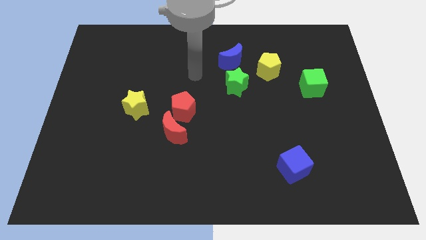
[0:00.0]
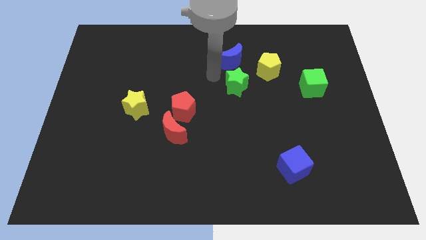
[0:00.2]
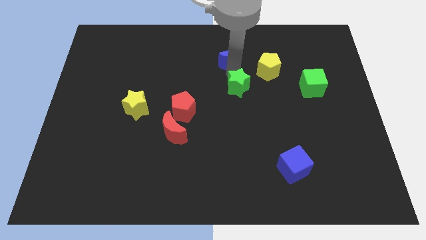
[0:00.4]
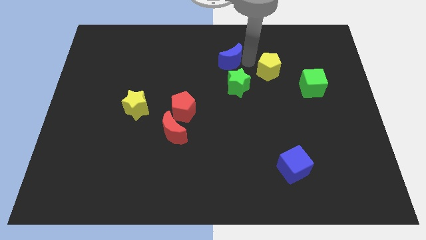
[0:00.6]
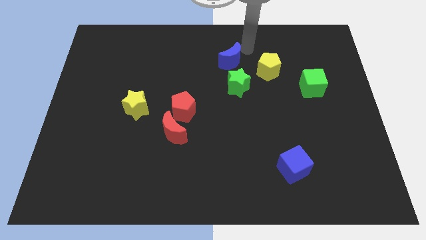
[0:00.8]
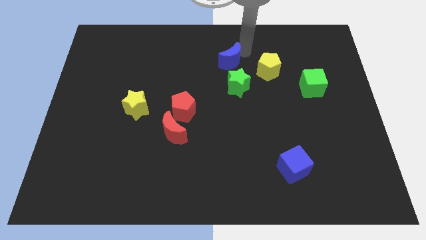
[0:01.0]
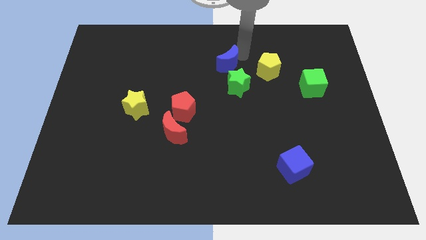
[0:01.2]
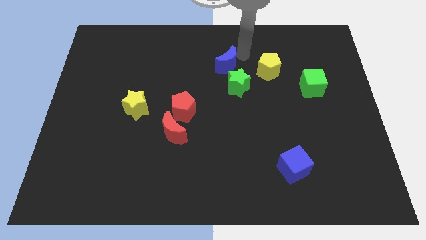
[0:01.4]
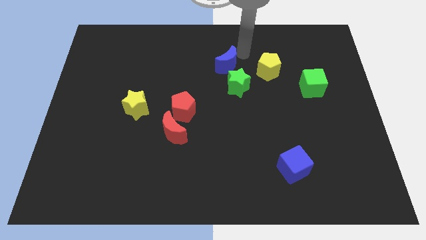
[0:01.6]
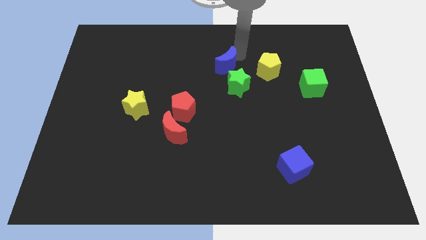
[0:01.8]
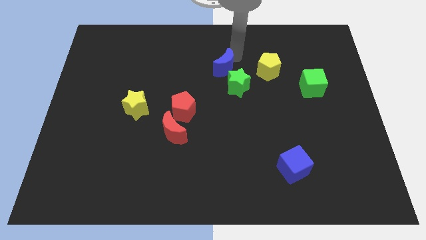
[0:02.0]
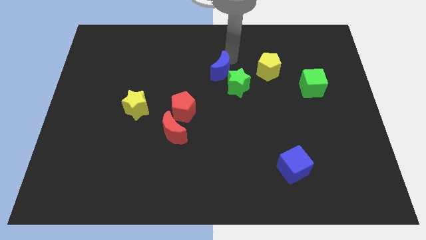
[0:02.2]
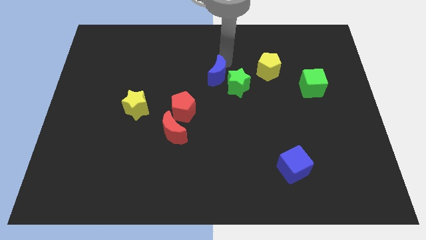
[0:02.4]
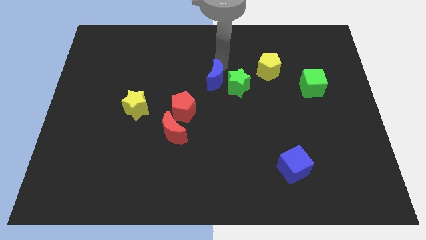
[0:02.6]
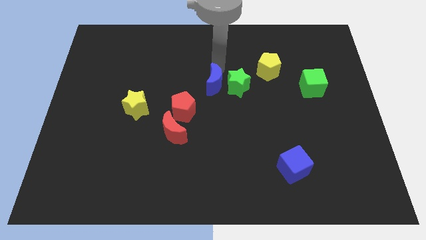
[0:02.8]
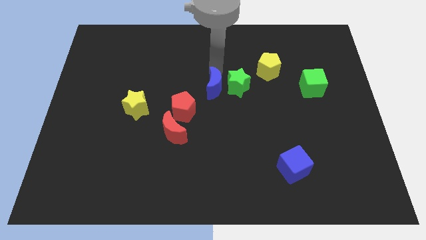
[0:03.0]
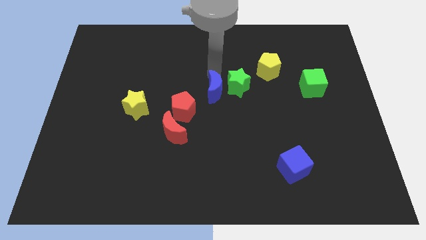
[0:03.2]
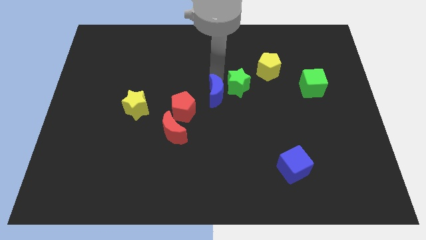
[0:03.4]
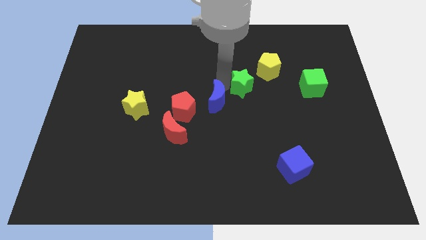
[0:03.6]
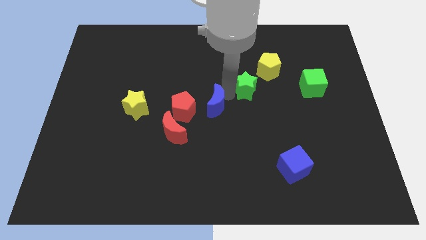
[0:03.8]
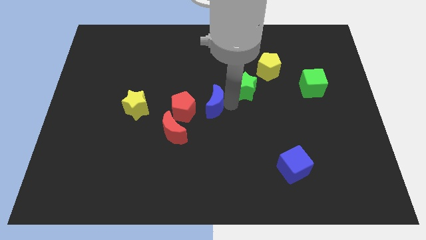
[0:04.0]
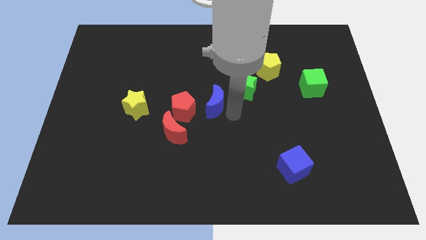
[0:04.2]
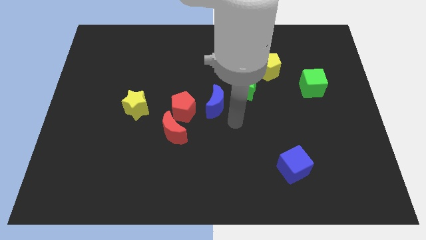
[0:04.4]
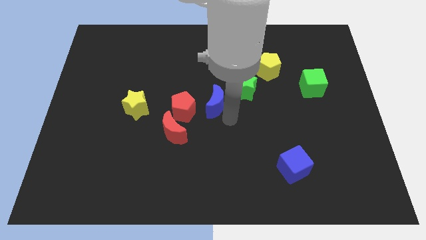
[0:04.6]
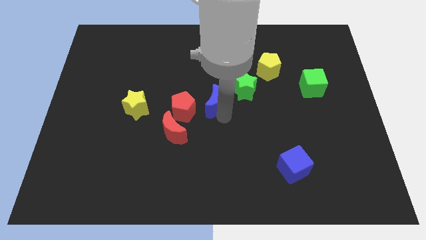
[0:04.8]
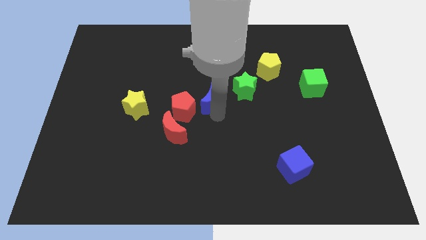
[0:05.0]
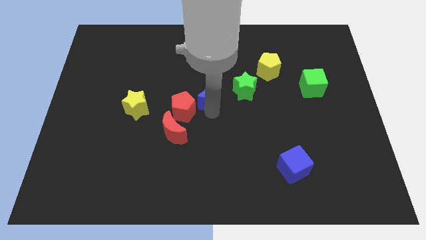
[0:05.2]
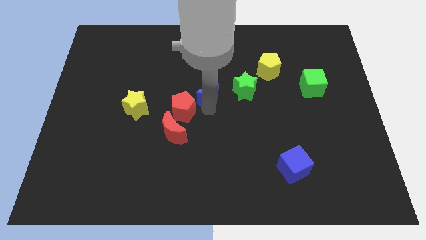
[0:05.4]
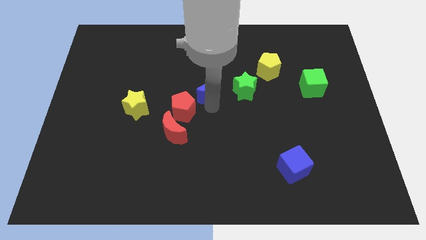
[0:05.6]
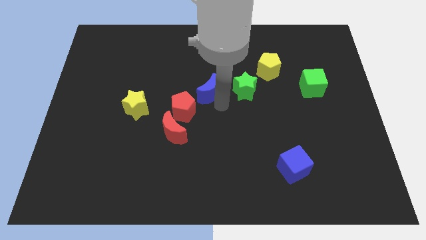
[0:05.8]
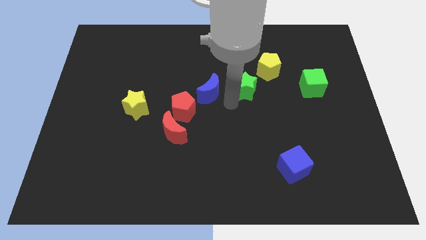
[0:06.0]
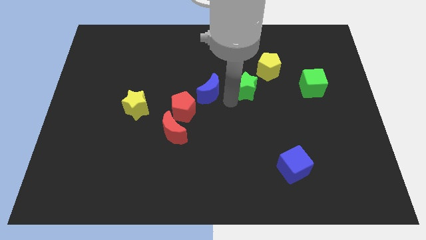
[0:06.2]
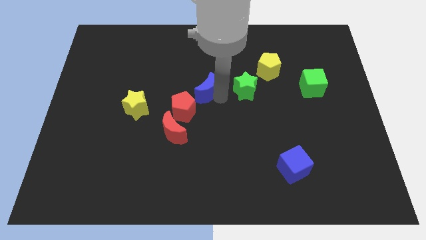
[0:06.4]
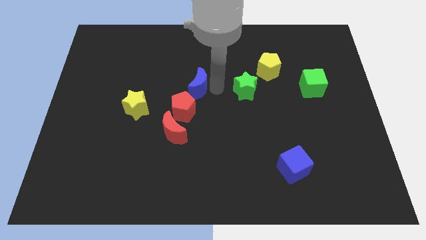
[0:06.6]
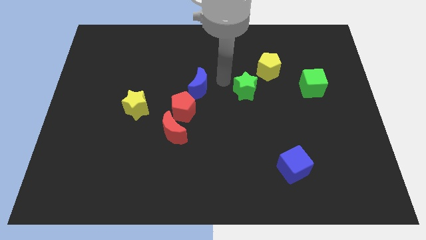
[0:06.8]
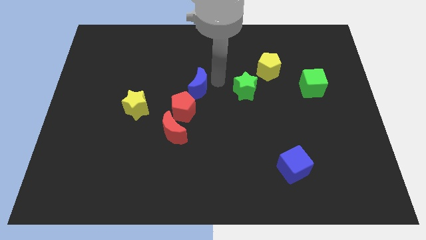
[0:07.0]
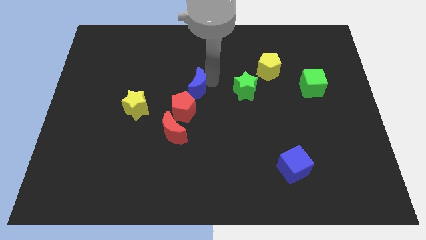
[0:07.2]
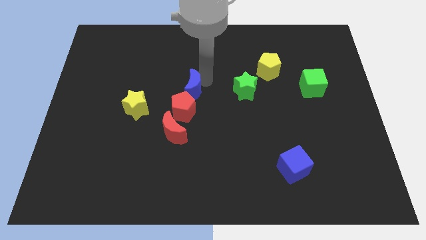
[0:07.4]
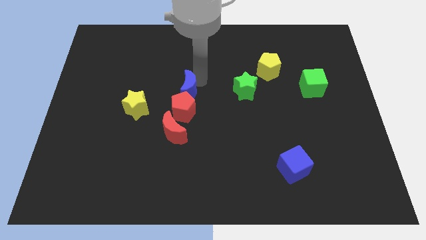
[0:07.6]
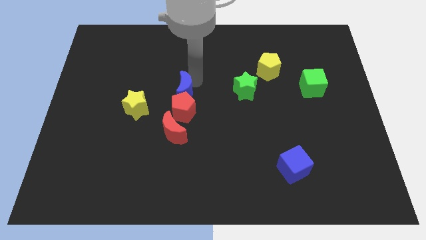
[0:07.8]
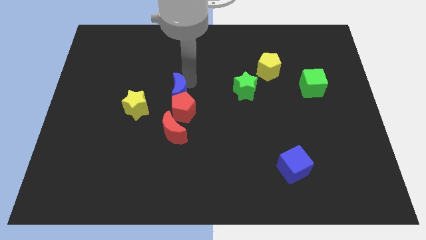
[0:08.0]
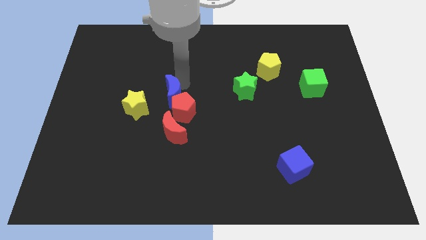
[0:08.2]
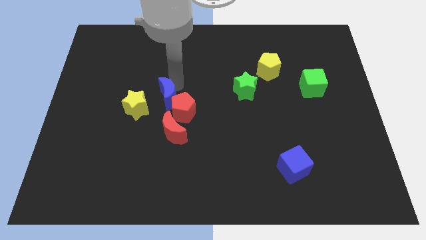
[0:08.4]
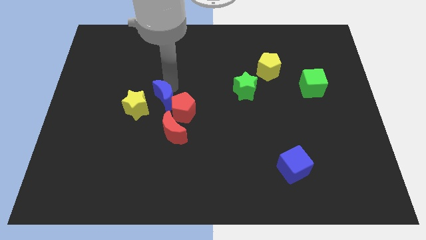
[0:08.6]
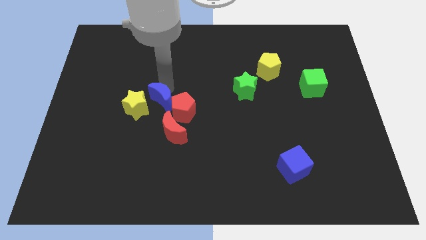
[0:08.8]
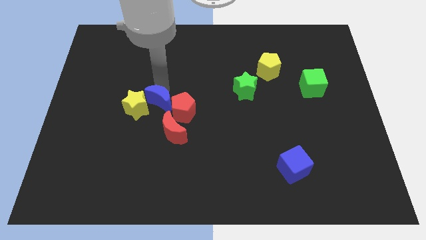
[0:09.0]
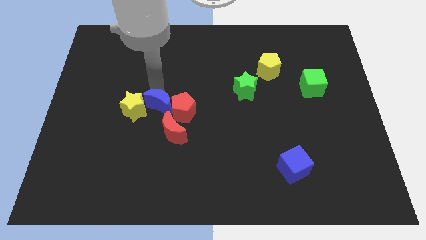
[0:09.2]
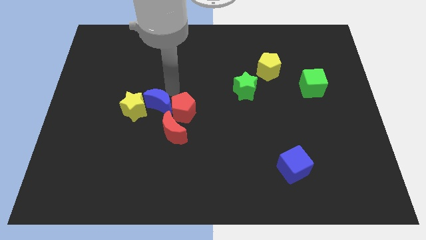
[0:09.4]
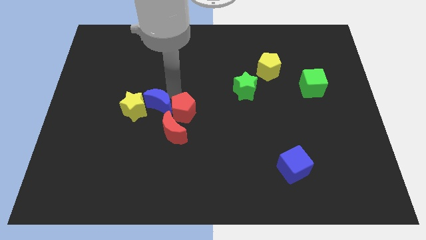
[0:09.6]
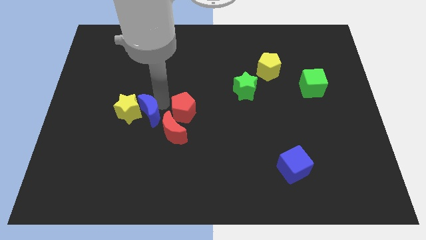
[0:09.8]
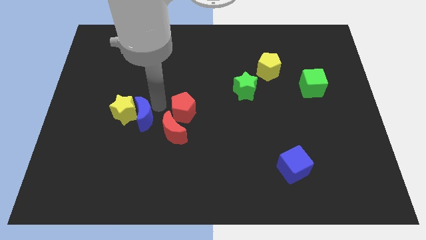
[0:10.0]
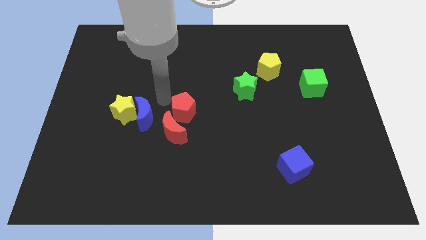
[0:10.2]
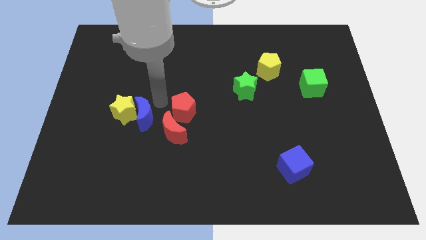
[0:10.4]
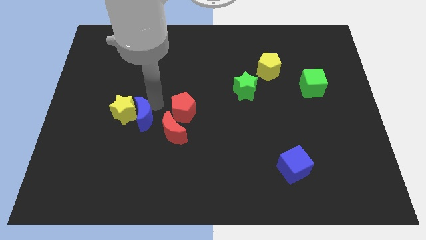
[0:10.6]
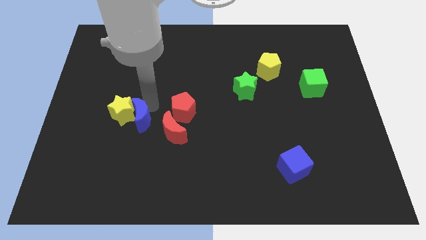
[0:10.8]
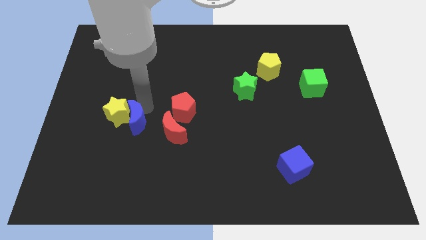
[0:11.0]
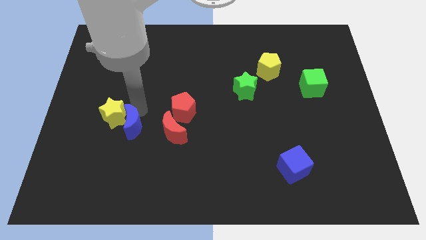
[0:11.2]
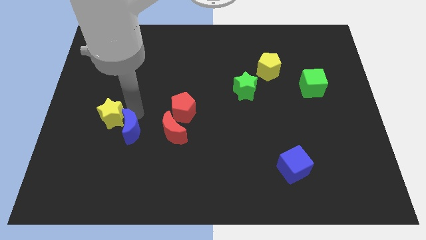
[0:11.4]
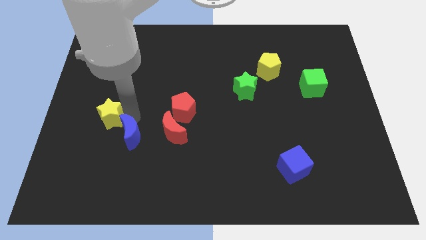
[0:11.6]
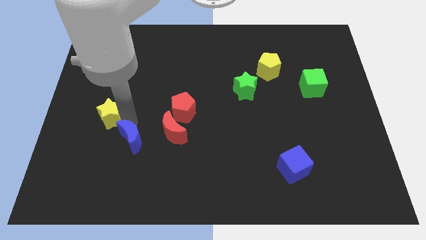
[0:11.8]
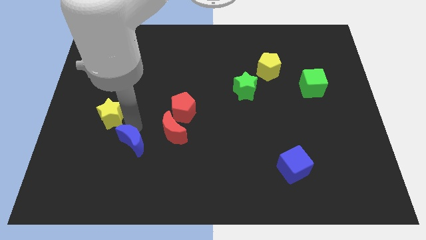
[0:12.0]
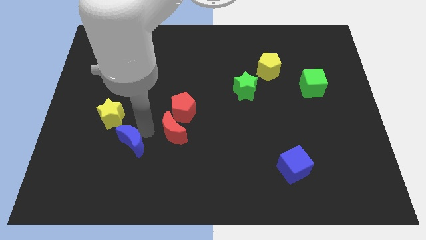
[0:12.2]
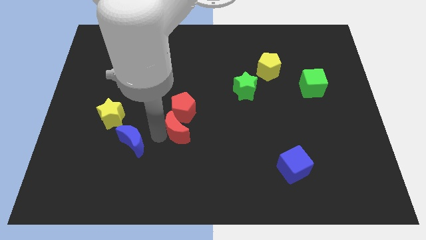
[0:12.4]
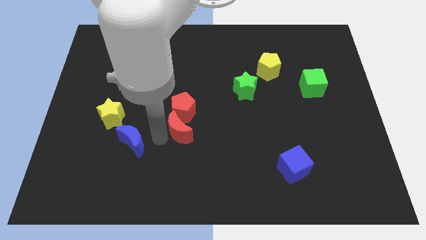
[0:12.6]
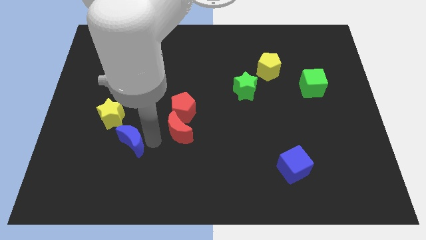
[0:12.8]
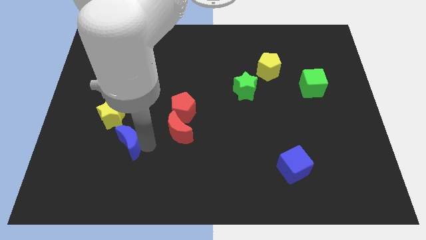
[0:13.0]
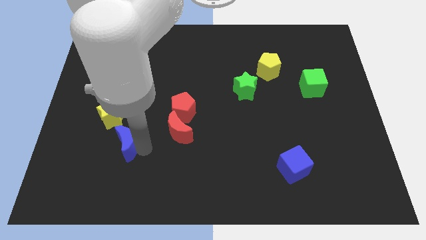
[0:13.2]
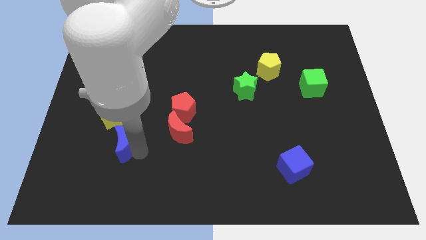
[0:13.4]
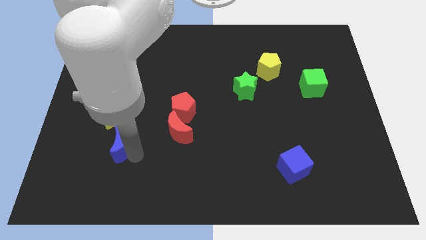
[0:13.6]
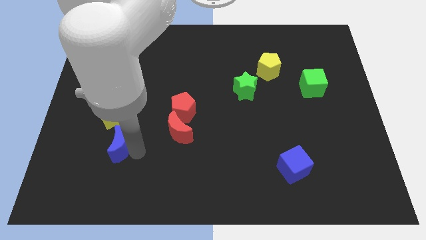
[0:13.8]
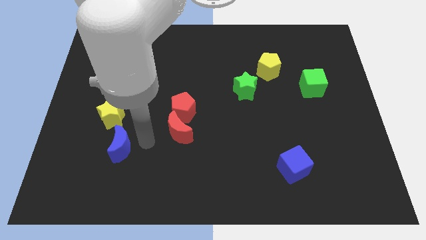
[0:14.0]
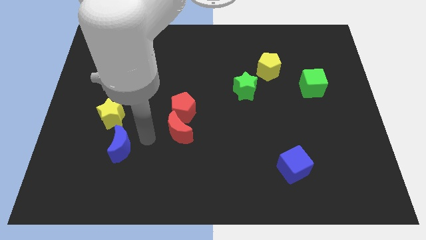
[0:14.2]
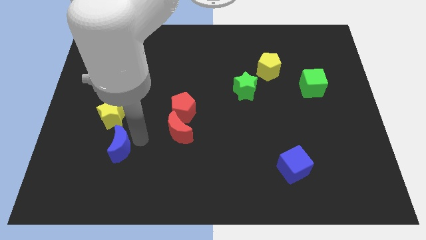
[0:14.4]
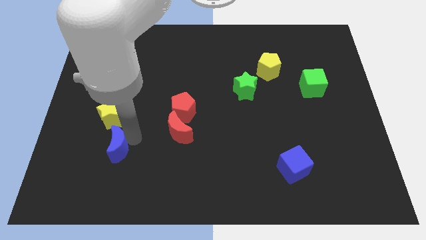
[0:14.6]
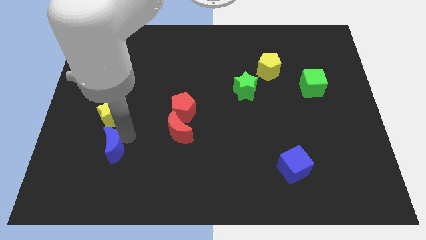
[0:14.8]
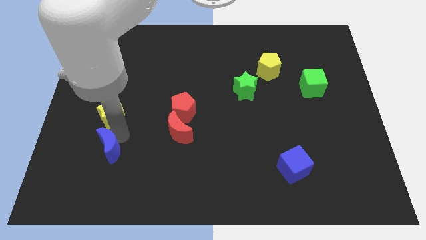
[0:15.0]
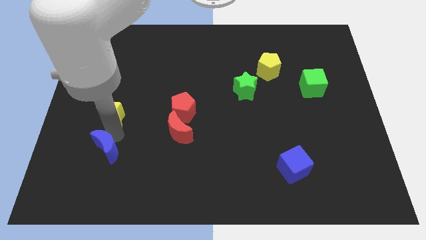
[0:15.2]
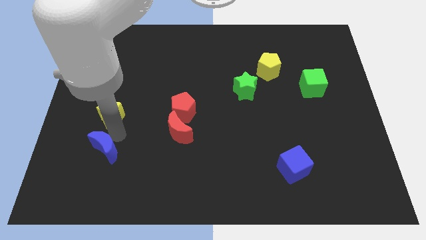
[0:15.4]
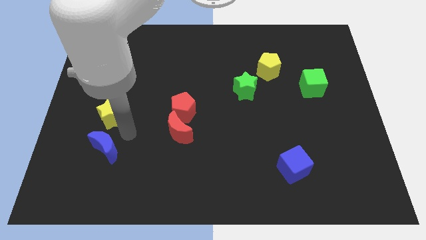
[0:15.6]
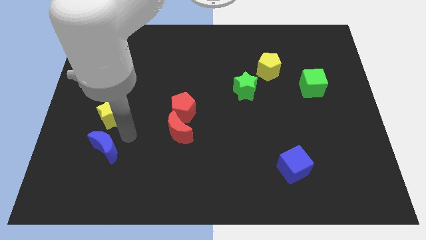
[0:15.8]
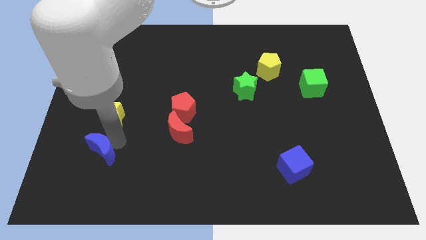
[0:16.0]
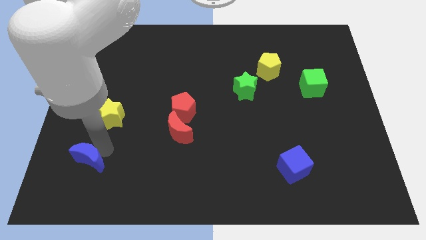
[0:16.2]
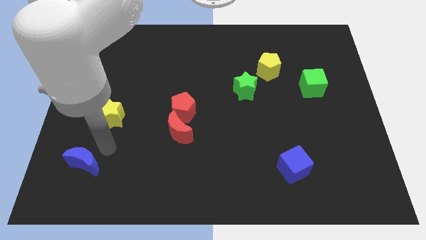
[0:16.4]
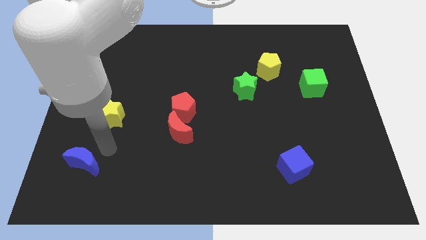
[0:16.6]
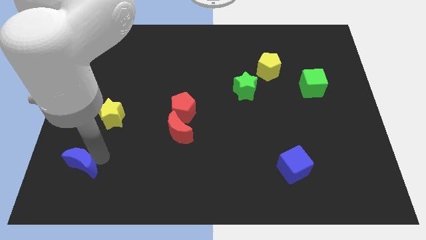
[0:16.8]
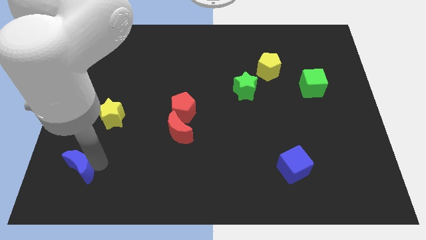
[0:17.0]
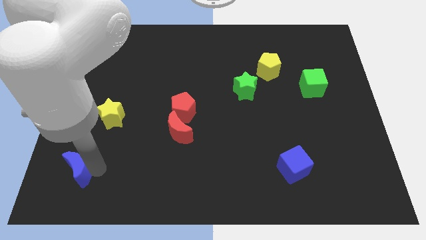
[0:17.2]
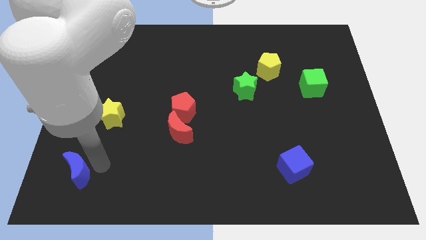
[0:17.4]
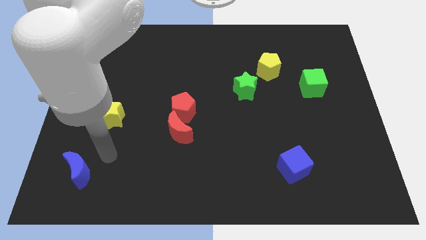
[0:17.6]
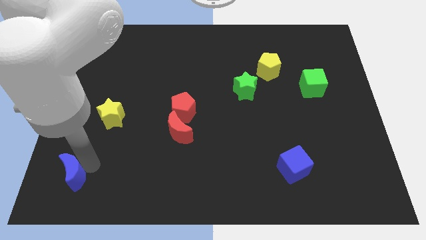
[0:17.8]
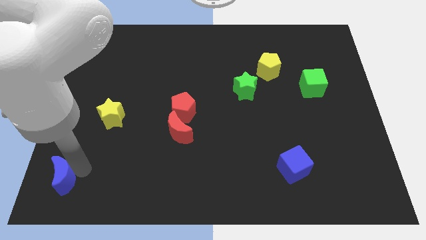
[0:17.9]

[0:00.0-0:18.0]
move the blue moon to the bottom left of the board
